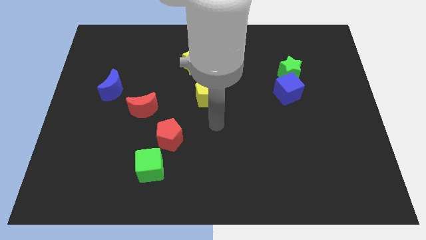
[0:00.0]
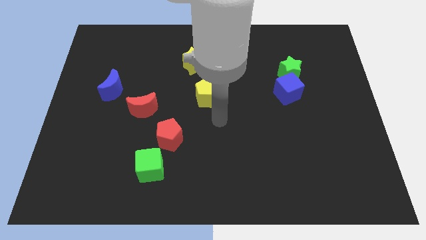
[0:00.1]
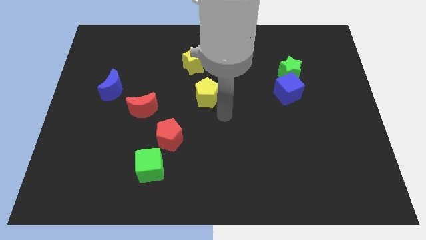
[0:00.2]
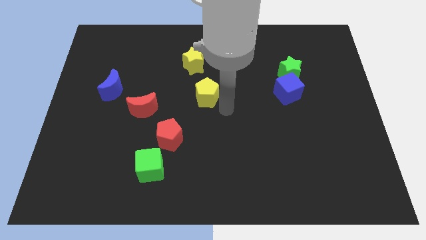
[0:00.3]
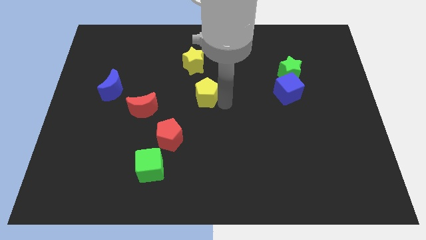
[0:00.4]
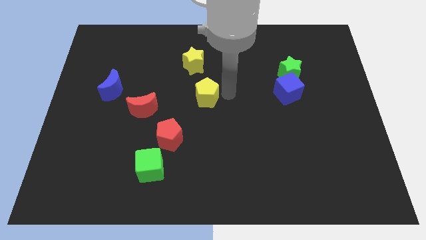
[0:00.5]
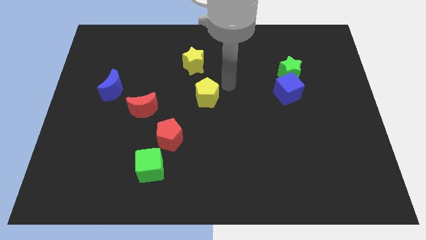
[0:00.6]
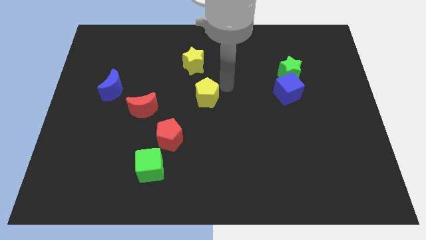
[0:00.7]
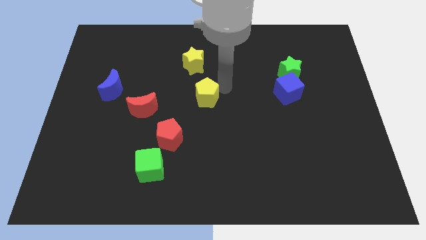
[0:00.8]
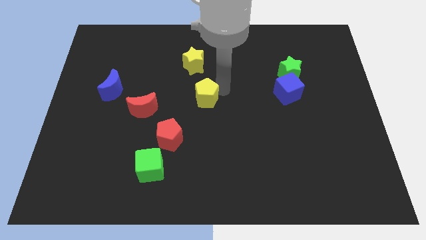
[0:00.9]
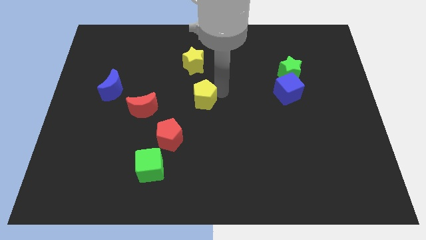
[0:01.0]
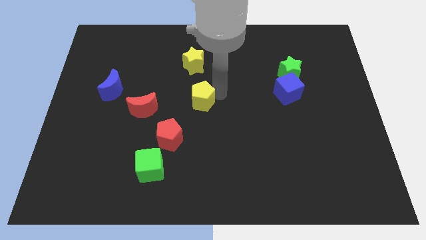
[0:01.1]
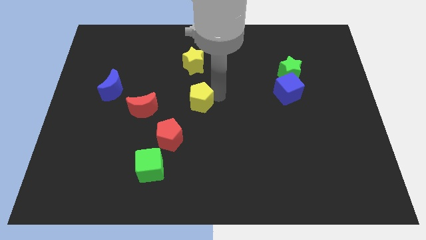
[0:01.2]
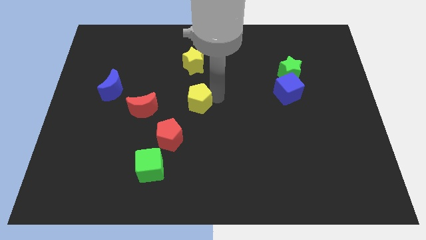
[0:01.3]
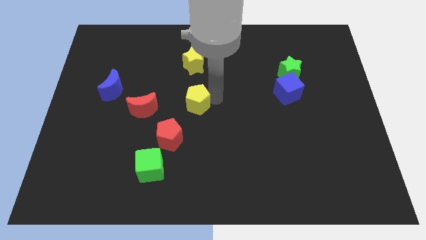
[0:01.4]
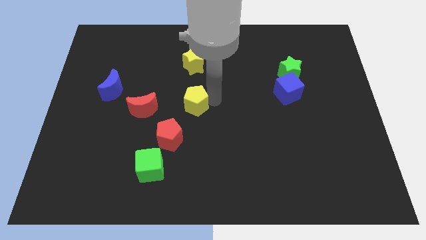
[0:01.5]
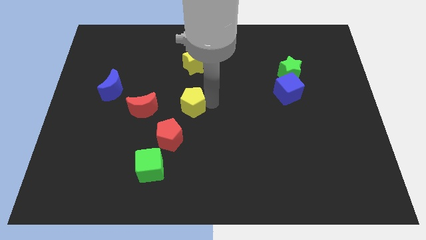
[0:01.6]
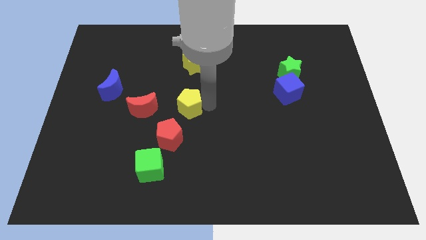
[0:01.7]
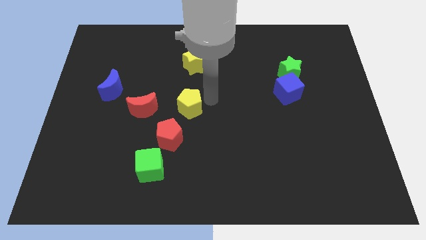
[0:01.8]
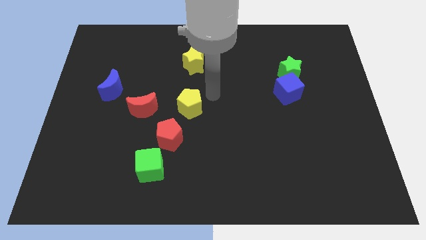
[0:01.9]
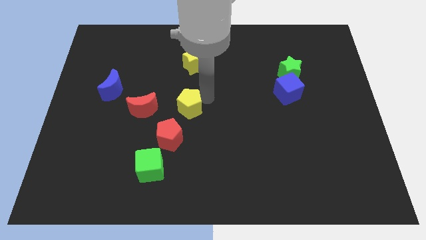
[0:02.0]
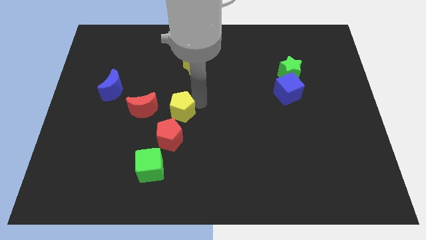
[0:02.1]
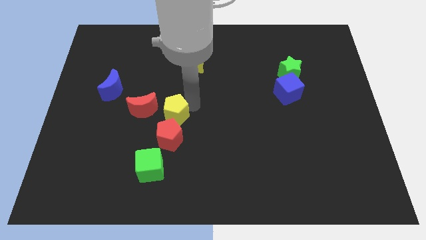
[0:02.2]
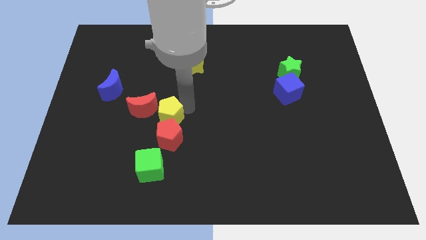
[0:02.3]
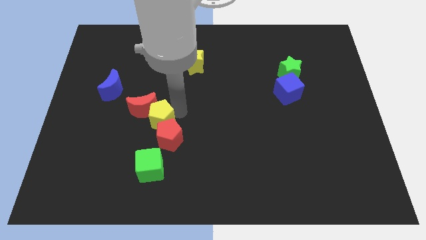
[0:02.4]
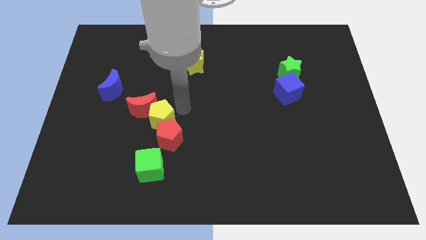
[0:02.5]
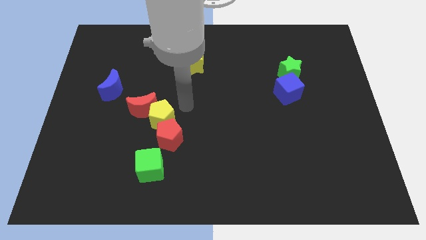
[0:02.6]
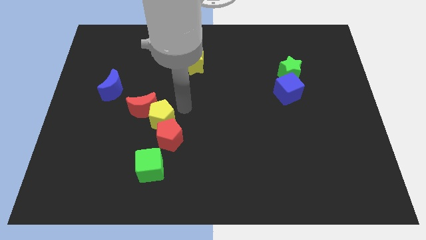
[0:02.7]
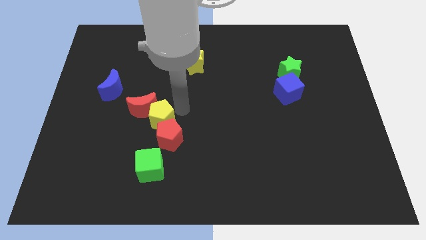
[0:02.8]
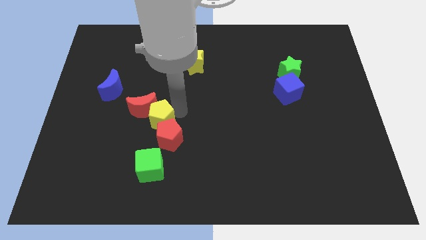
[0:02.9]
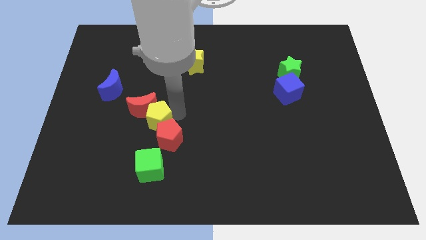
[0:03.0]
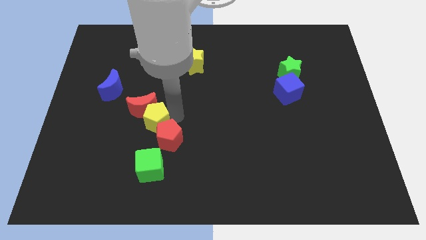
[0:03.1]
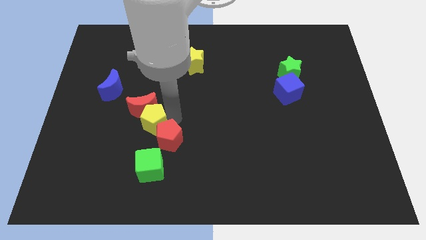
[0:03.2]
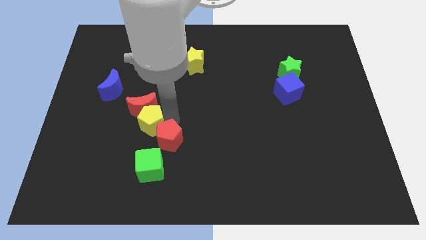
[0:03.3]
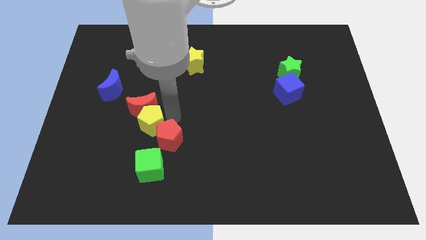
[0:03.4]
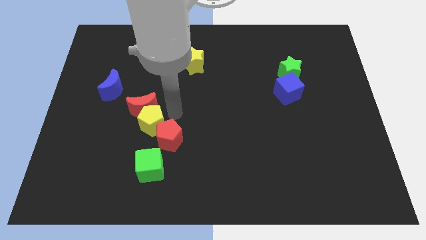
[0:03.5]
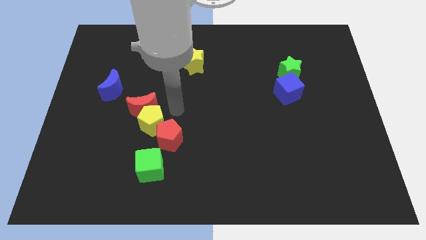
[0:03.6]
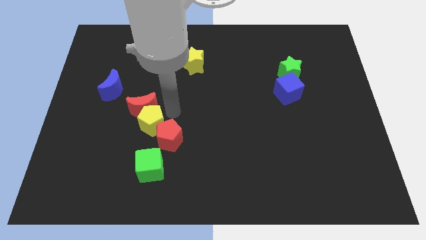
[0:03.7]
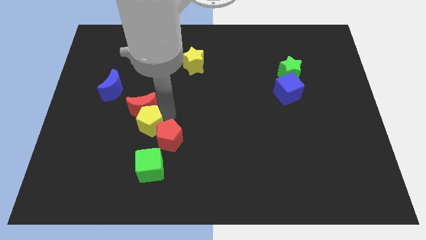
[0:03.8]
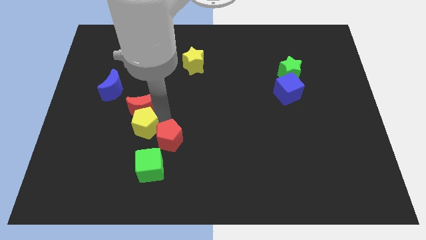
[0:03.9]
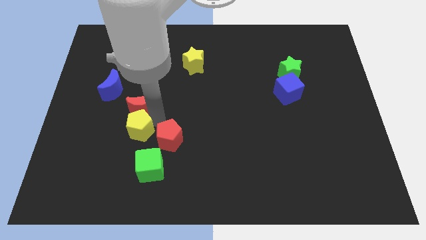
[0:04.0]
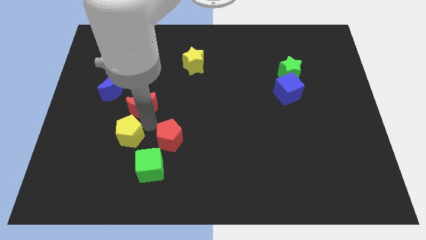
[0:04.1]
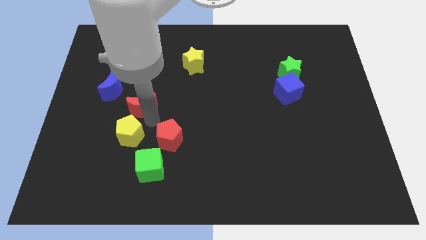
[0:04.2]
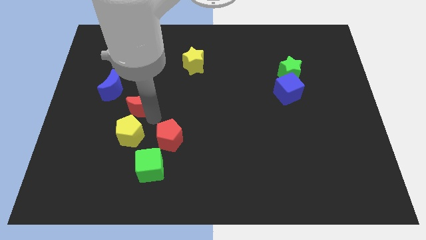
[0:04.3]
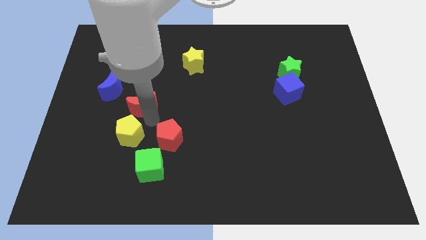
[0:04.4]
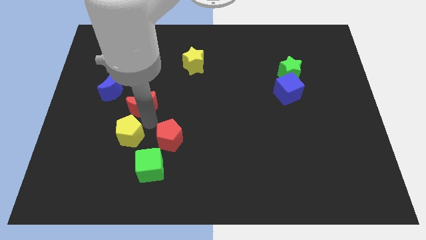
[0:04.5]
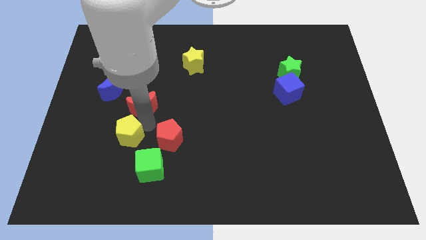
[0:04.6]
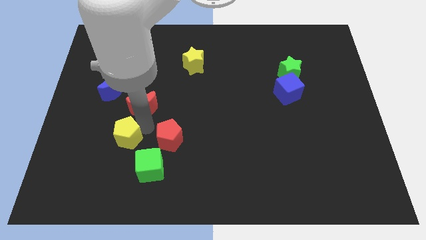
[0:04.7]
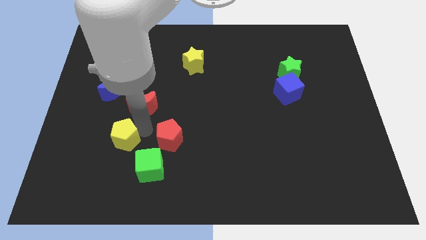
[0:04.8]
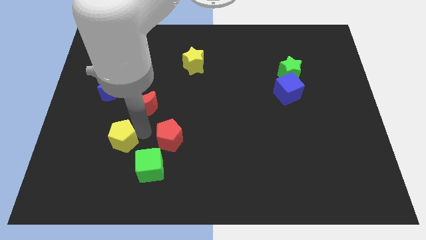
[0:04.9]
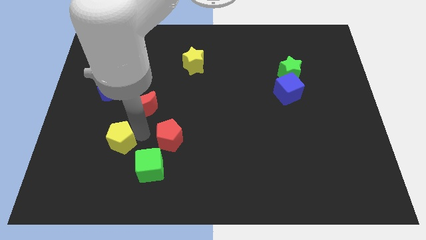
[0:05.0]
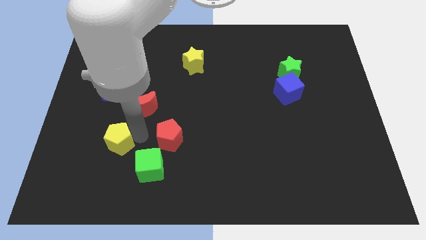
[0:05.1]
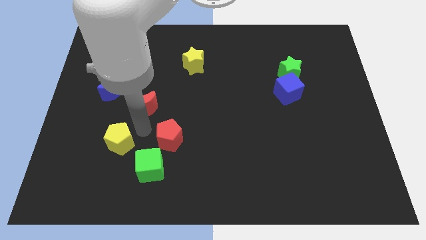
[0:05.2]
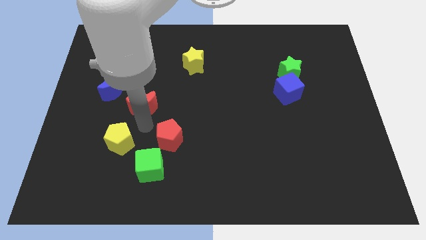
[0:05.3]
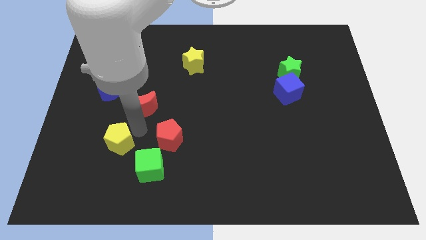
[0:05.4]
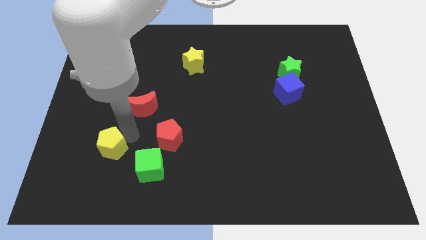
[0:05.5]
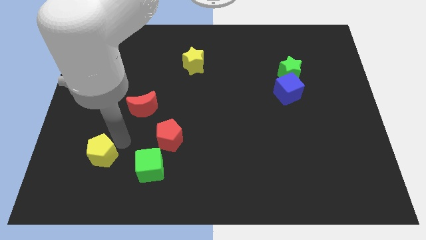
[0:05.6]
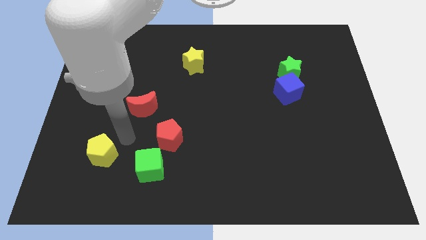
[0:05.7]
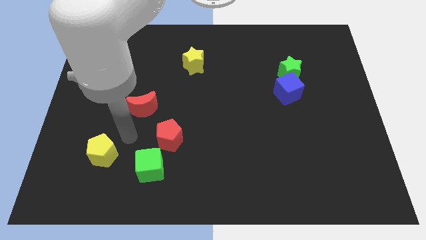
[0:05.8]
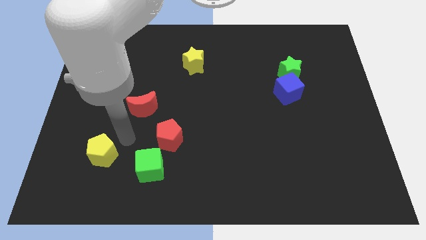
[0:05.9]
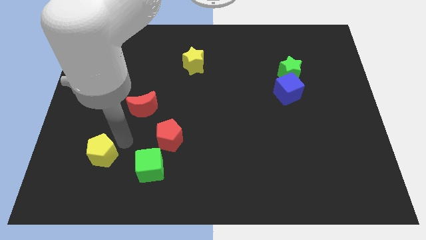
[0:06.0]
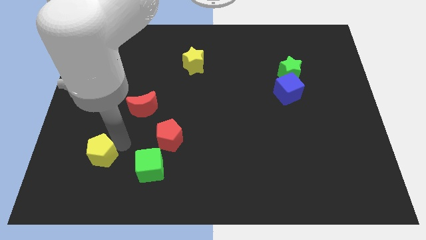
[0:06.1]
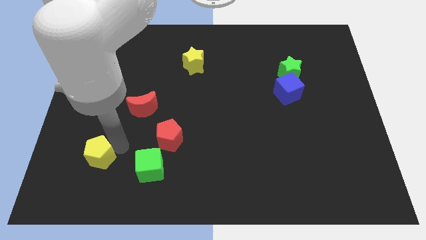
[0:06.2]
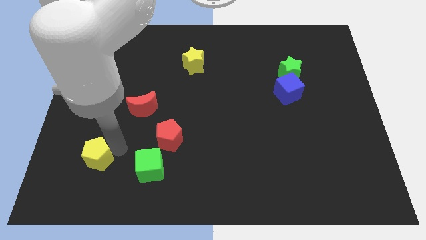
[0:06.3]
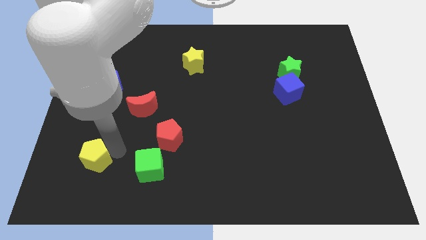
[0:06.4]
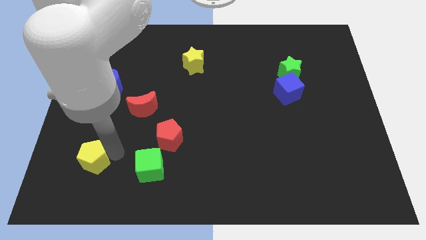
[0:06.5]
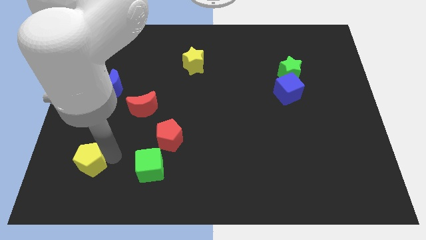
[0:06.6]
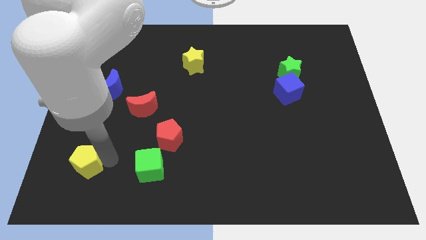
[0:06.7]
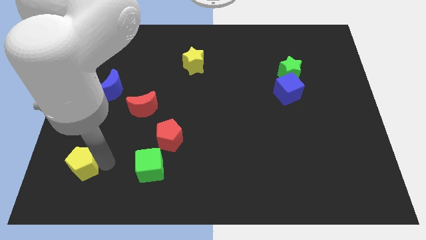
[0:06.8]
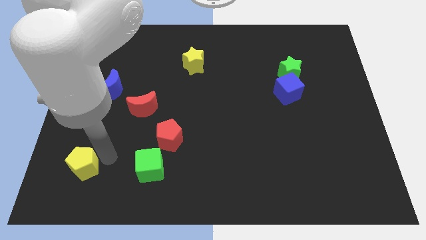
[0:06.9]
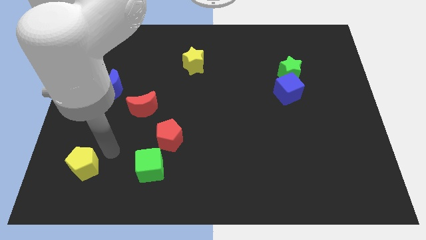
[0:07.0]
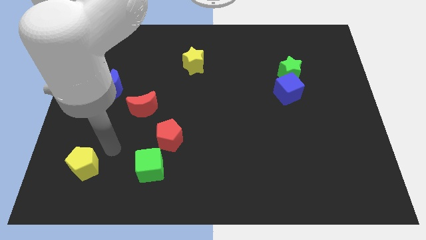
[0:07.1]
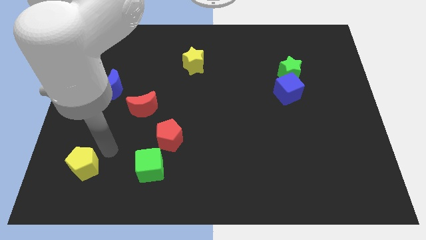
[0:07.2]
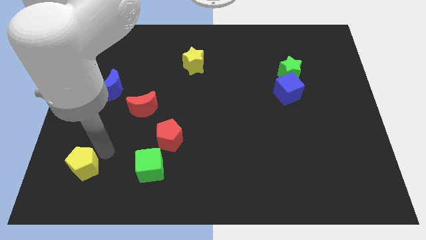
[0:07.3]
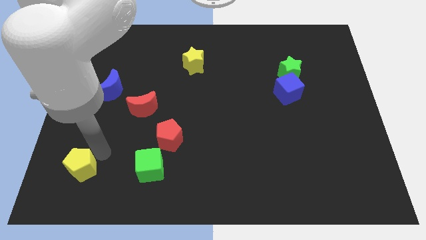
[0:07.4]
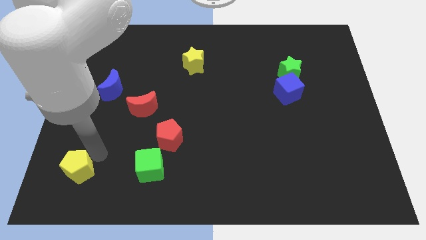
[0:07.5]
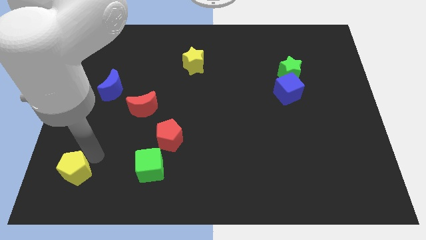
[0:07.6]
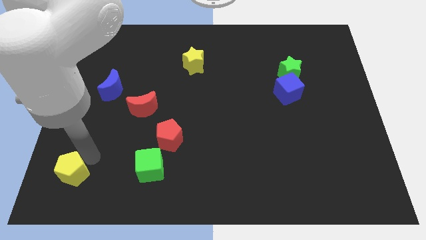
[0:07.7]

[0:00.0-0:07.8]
put the yellow pentagon to the bottom left of the board
